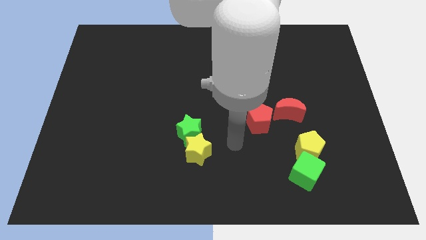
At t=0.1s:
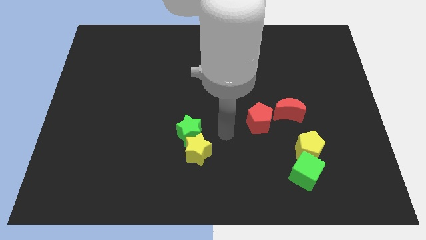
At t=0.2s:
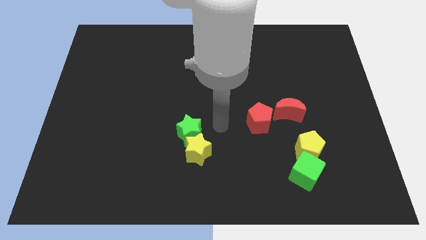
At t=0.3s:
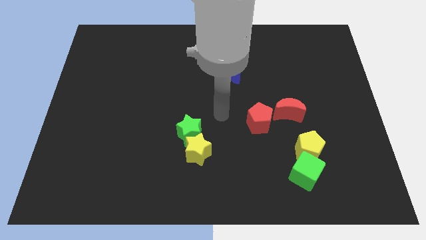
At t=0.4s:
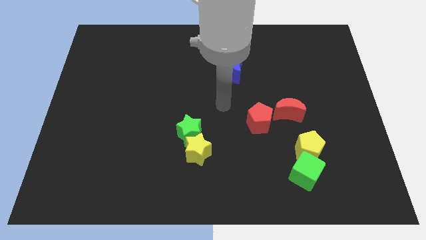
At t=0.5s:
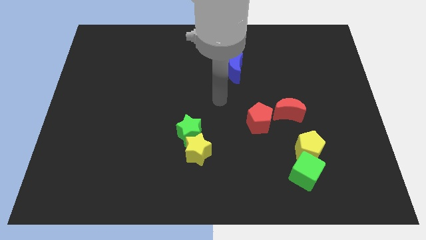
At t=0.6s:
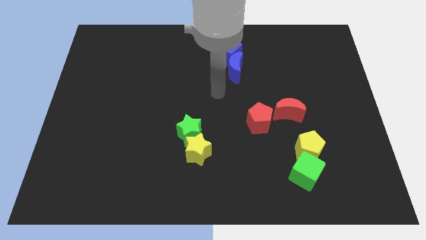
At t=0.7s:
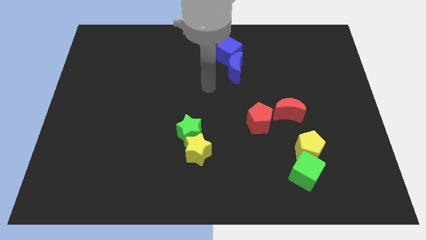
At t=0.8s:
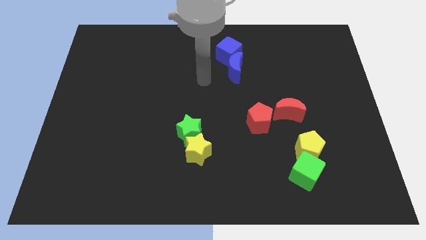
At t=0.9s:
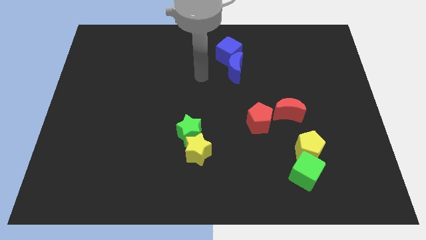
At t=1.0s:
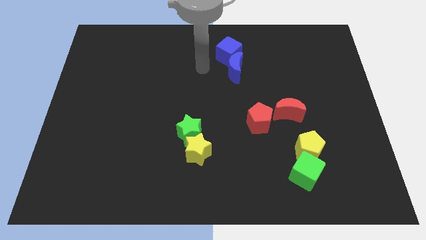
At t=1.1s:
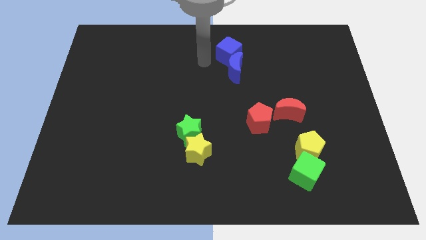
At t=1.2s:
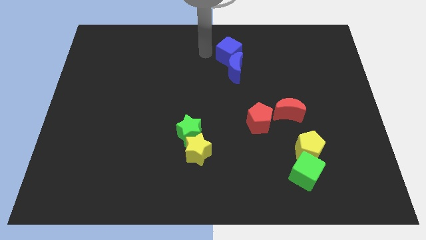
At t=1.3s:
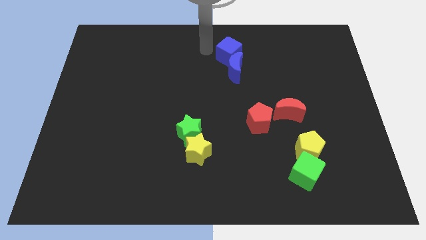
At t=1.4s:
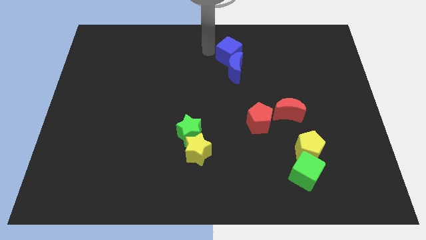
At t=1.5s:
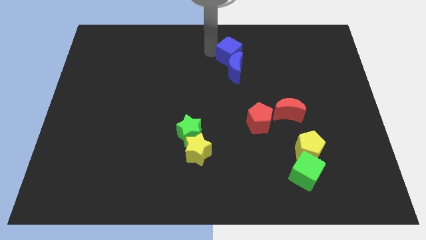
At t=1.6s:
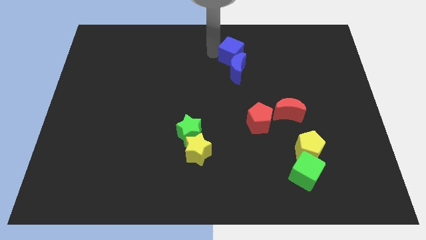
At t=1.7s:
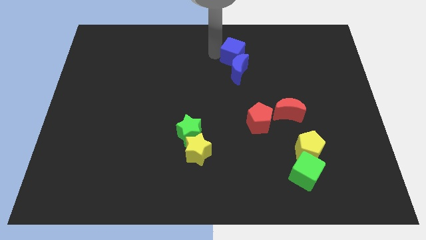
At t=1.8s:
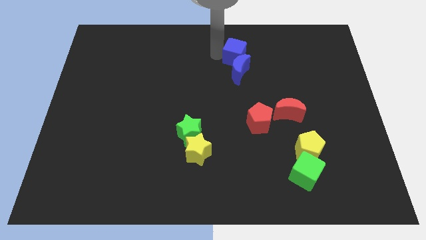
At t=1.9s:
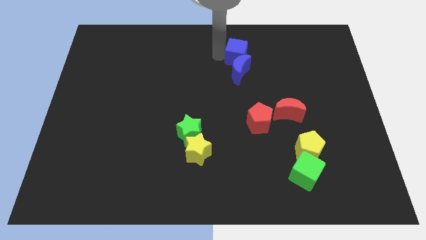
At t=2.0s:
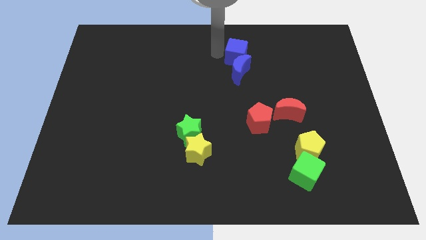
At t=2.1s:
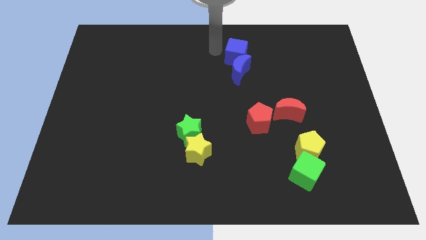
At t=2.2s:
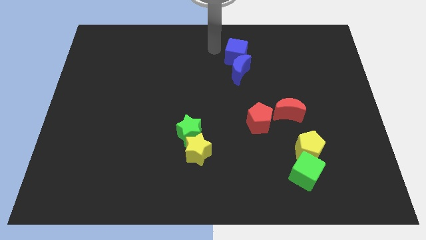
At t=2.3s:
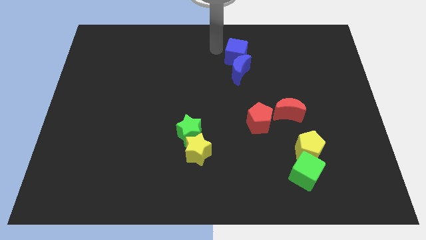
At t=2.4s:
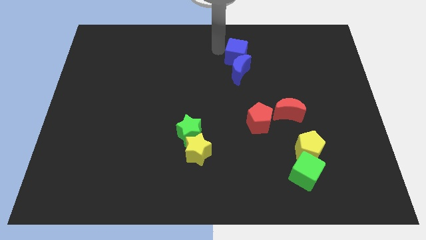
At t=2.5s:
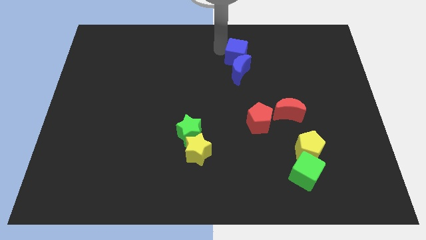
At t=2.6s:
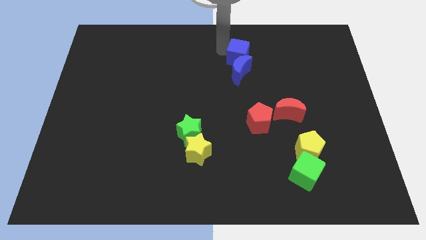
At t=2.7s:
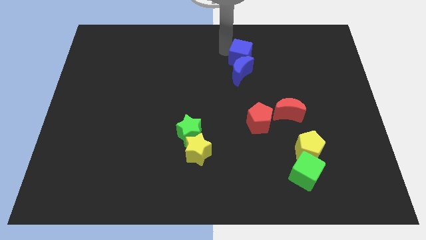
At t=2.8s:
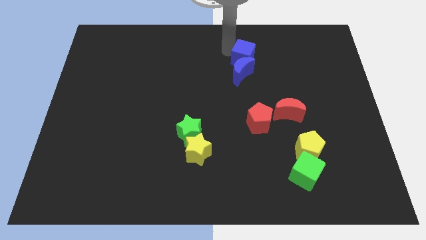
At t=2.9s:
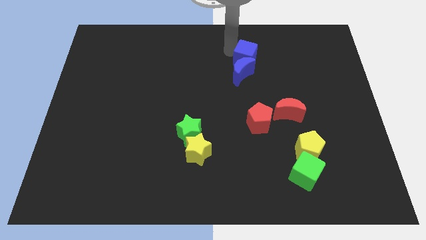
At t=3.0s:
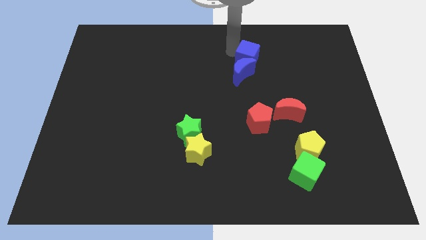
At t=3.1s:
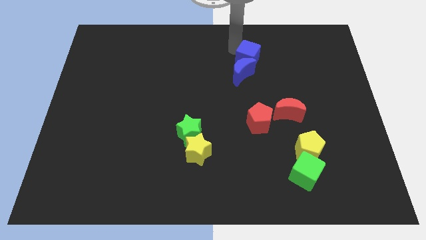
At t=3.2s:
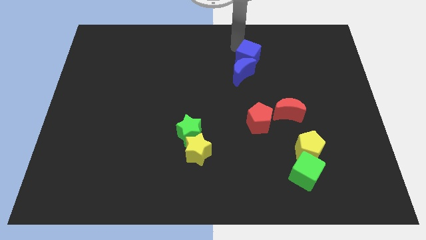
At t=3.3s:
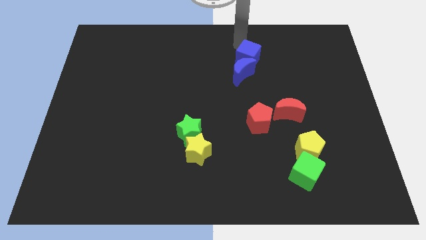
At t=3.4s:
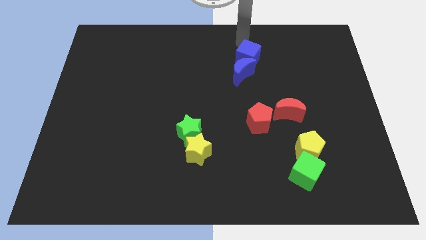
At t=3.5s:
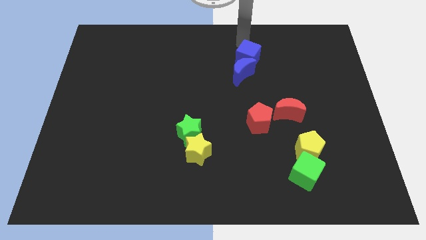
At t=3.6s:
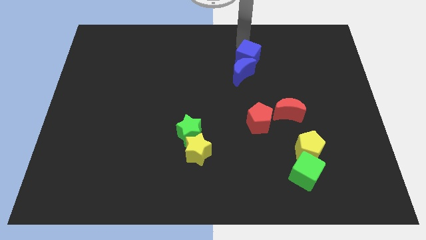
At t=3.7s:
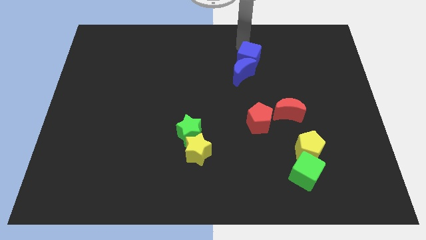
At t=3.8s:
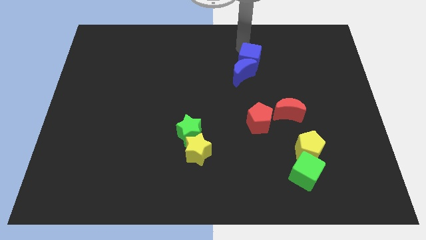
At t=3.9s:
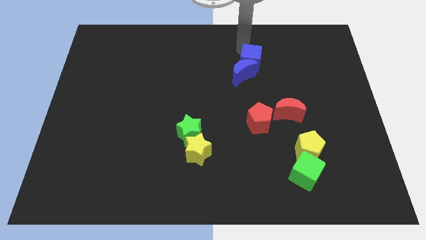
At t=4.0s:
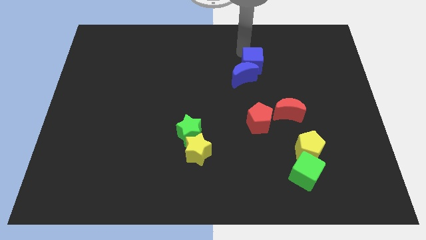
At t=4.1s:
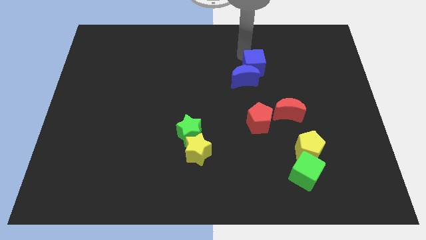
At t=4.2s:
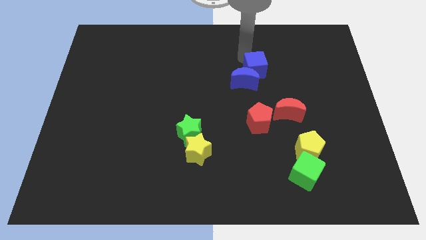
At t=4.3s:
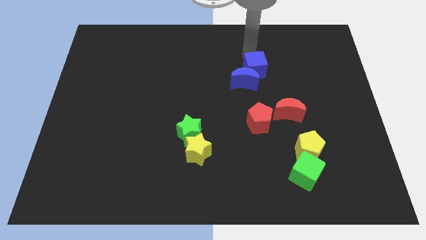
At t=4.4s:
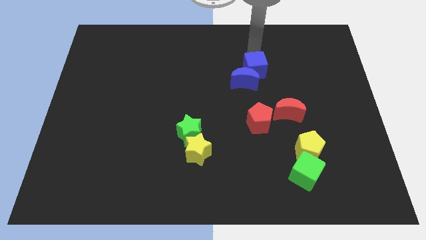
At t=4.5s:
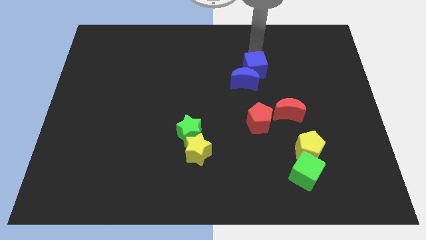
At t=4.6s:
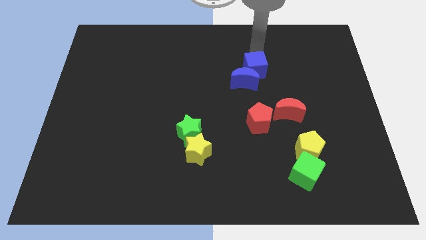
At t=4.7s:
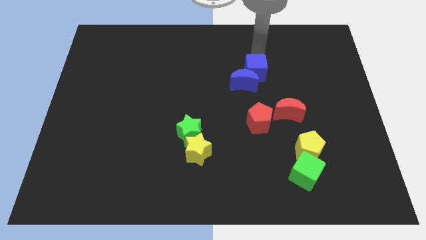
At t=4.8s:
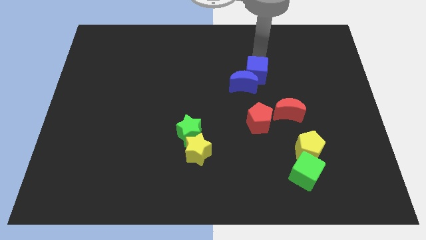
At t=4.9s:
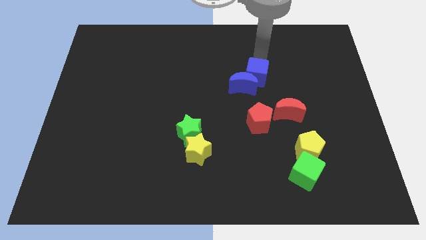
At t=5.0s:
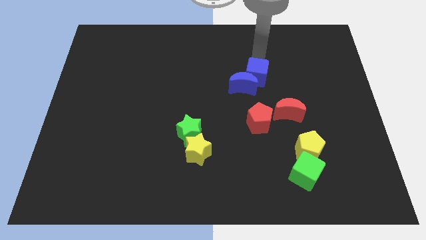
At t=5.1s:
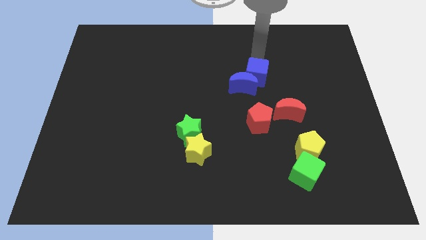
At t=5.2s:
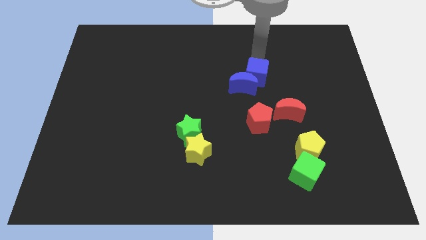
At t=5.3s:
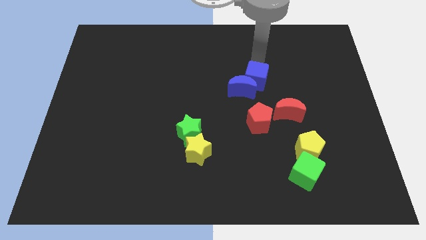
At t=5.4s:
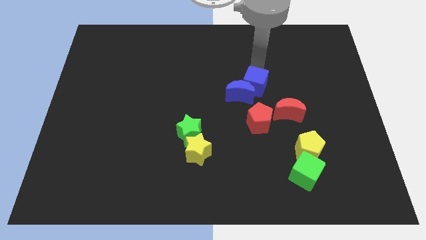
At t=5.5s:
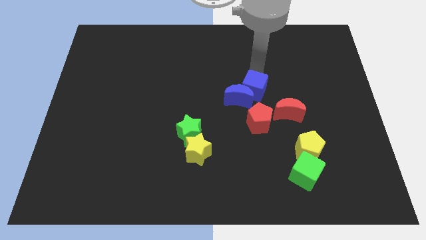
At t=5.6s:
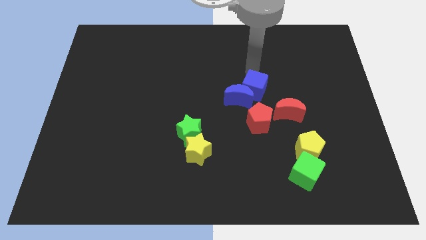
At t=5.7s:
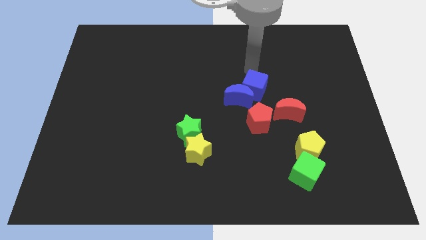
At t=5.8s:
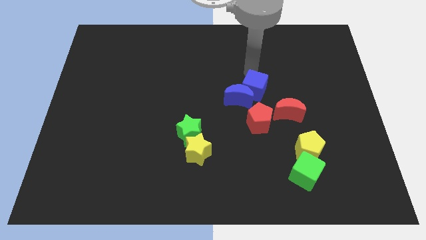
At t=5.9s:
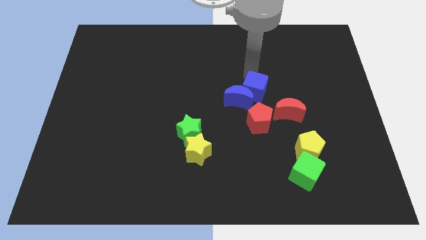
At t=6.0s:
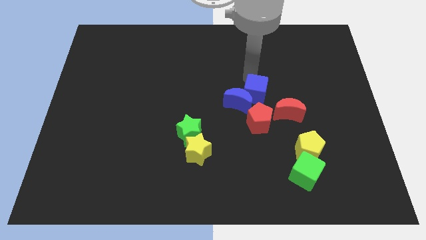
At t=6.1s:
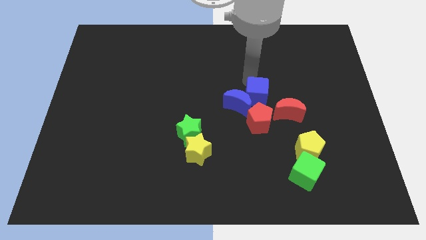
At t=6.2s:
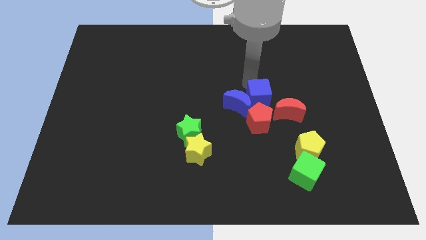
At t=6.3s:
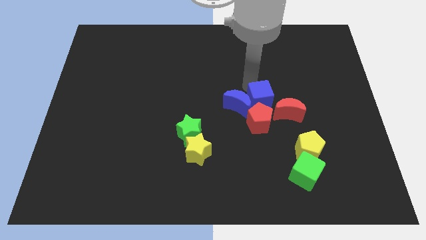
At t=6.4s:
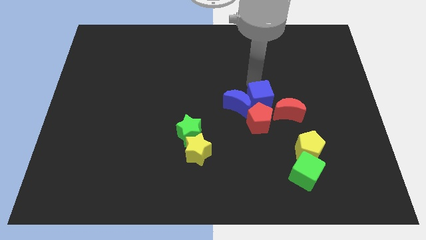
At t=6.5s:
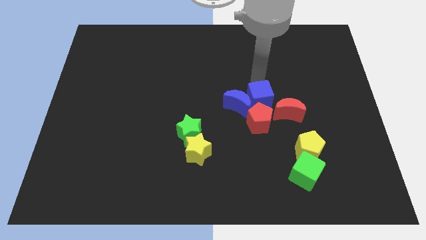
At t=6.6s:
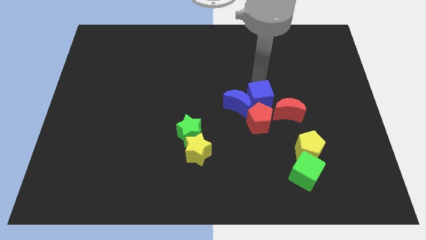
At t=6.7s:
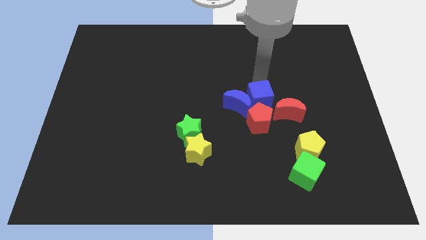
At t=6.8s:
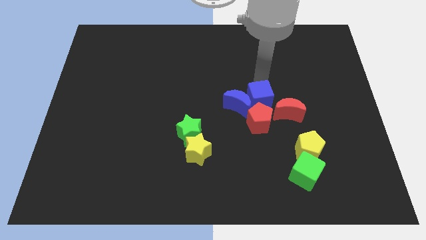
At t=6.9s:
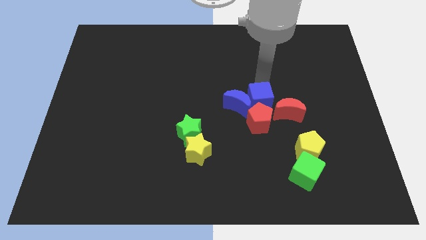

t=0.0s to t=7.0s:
slide the blue cube to the red pentagon

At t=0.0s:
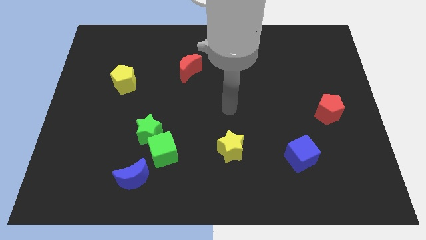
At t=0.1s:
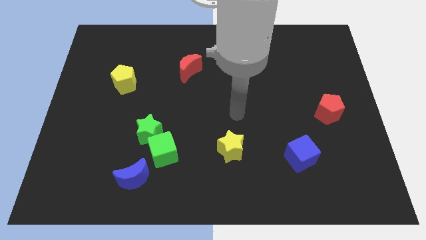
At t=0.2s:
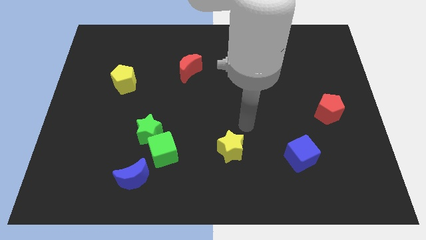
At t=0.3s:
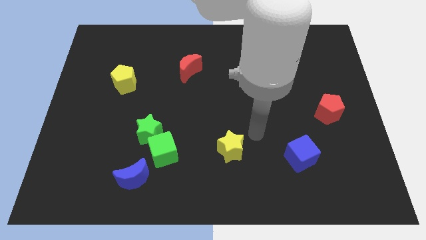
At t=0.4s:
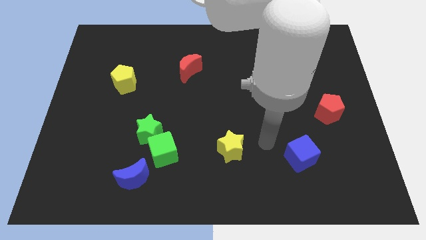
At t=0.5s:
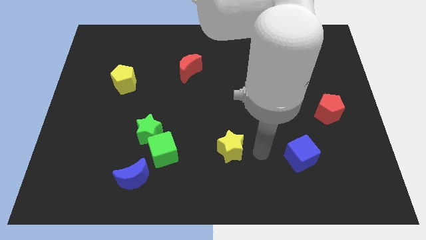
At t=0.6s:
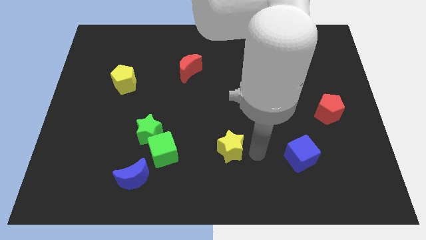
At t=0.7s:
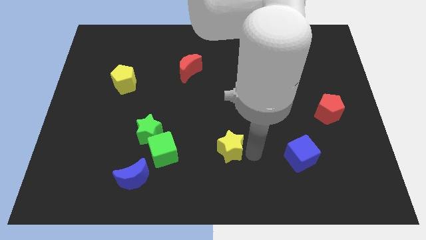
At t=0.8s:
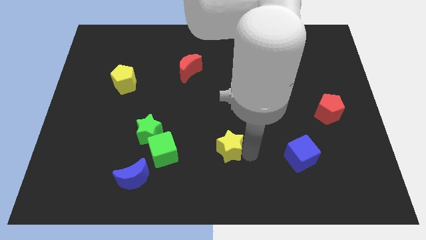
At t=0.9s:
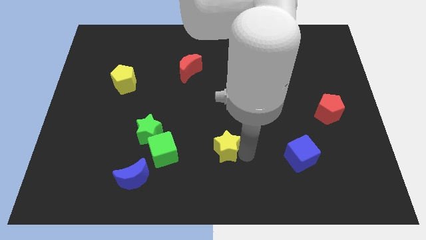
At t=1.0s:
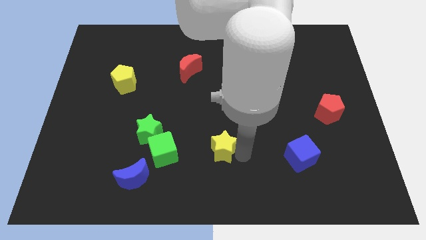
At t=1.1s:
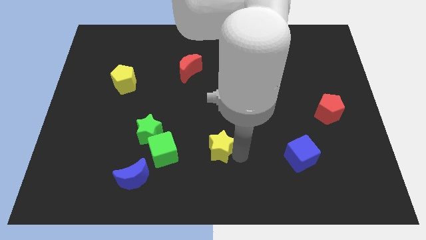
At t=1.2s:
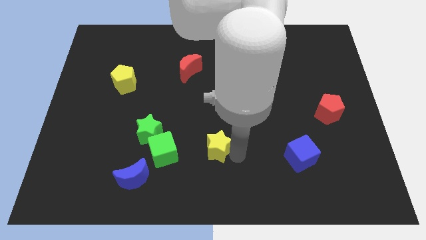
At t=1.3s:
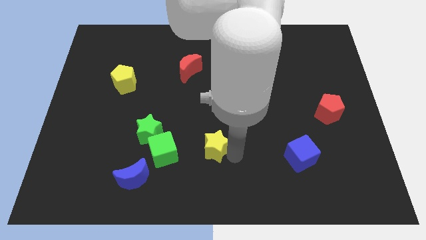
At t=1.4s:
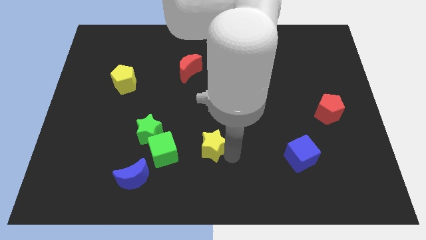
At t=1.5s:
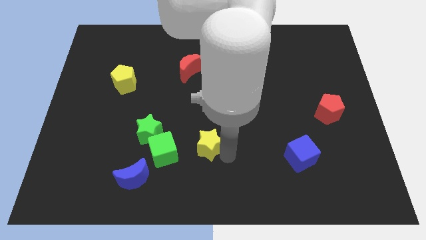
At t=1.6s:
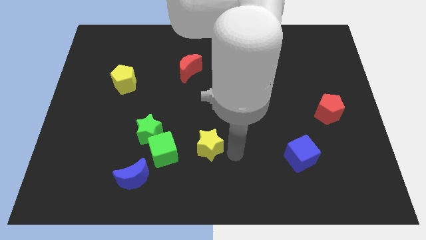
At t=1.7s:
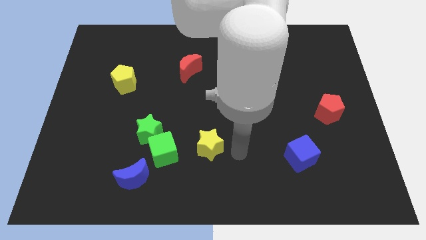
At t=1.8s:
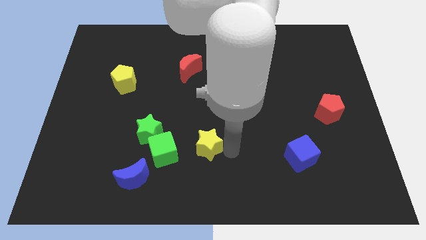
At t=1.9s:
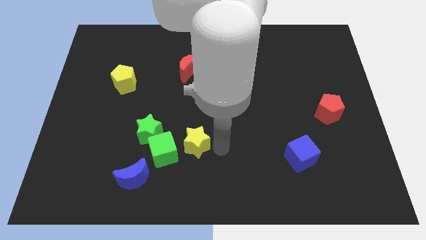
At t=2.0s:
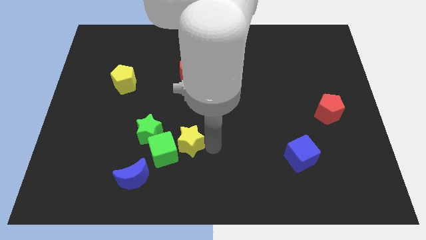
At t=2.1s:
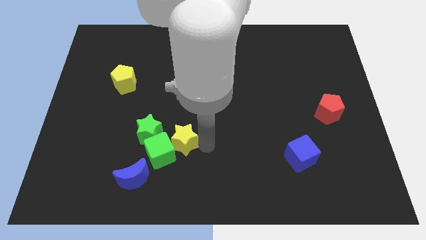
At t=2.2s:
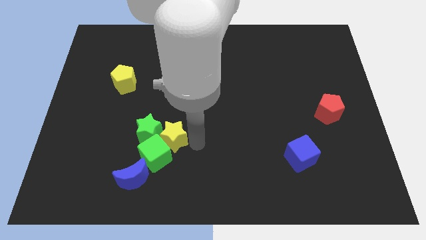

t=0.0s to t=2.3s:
move the yellow star close to the green star
